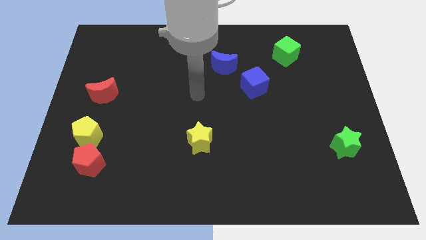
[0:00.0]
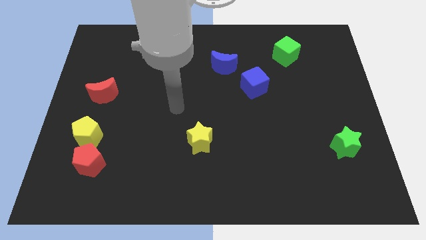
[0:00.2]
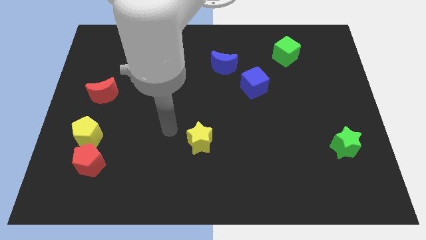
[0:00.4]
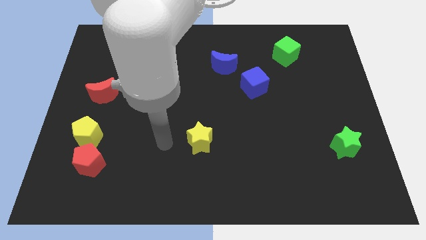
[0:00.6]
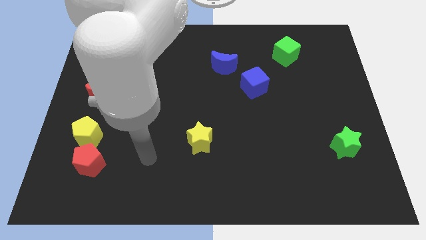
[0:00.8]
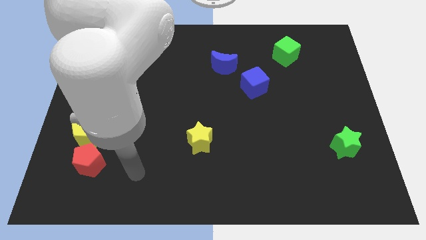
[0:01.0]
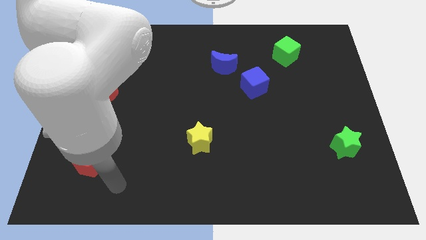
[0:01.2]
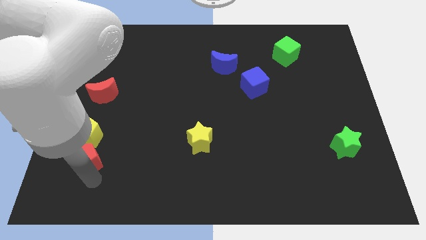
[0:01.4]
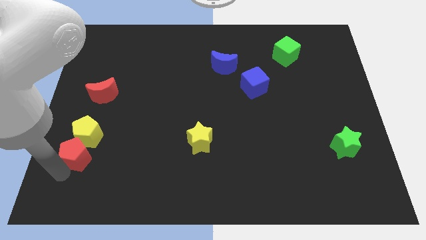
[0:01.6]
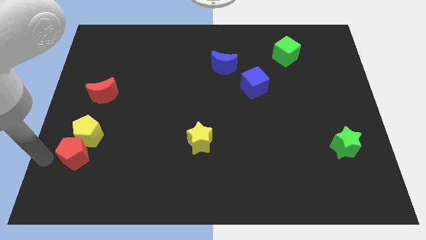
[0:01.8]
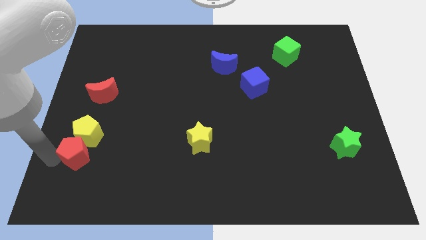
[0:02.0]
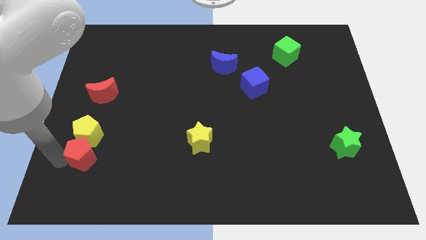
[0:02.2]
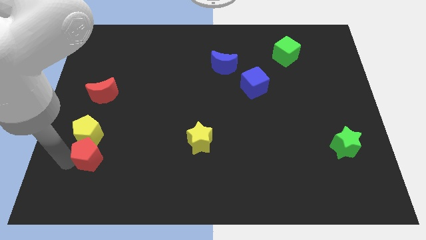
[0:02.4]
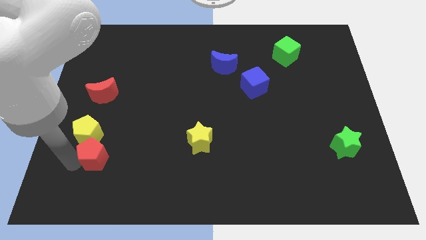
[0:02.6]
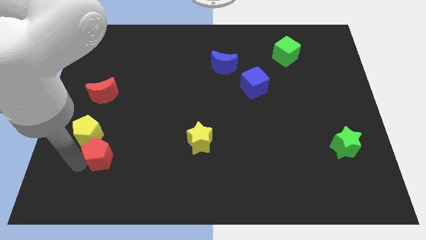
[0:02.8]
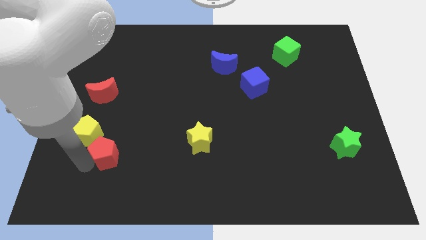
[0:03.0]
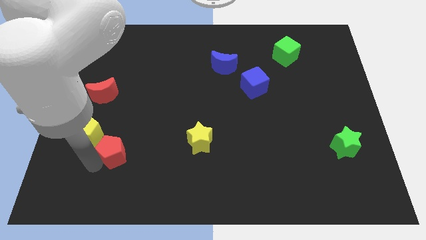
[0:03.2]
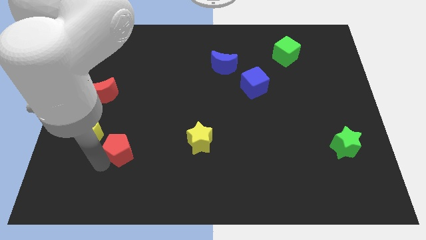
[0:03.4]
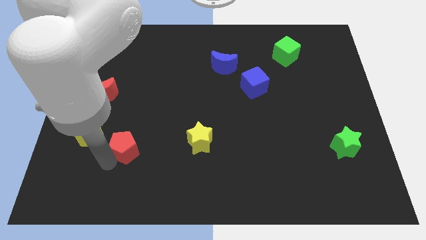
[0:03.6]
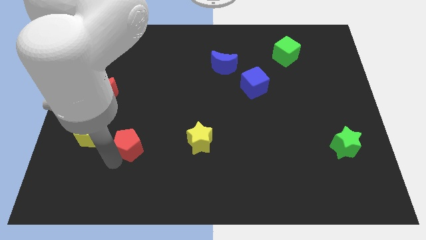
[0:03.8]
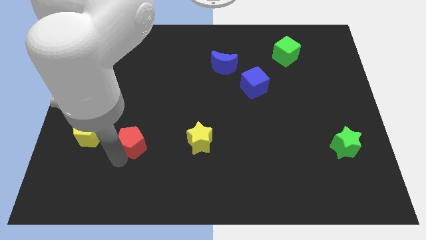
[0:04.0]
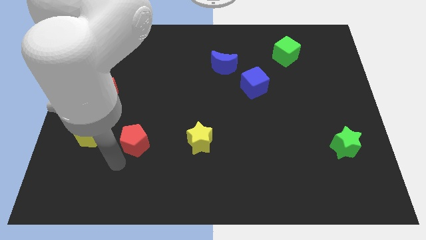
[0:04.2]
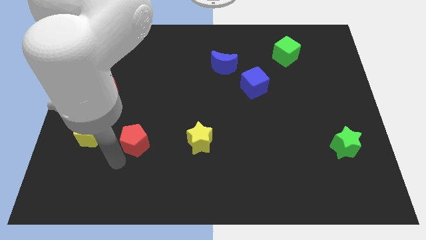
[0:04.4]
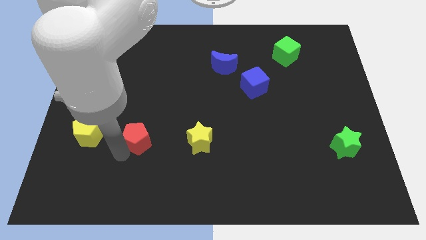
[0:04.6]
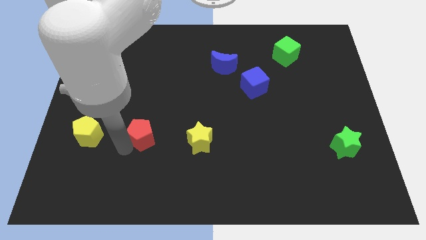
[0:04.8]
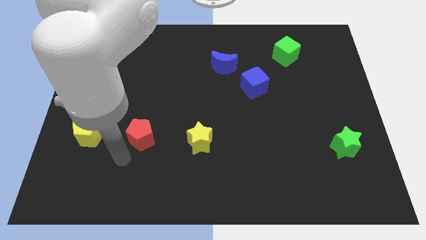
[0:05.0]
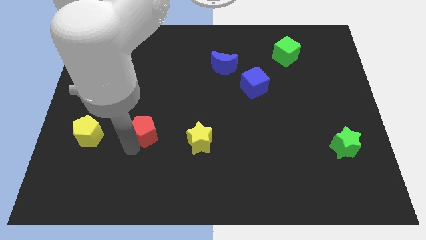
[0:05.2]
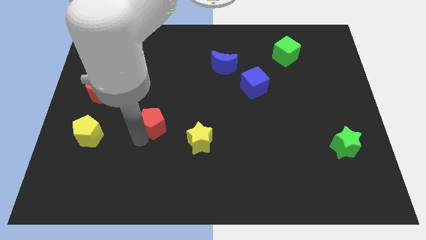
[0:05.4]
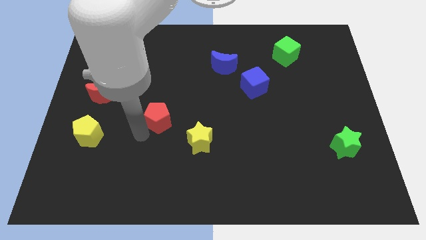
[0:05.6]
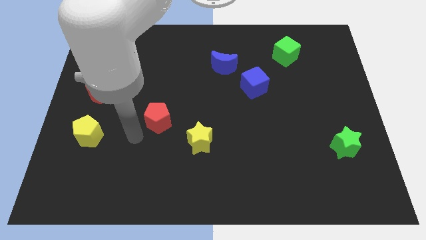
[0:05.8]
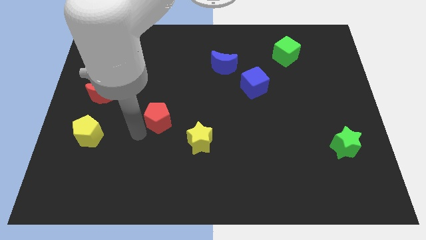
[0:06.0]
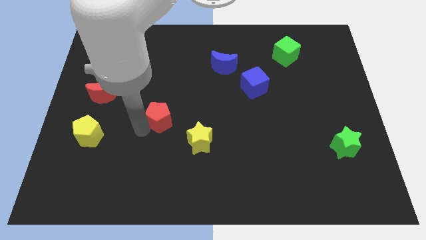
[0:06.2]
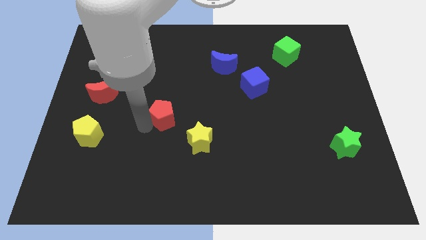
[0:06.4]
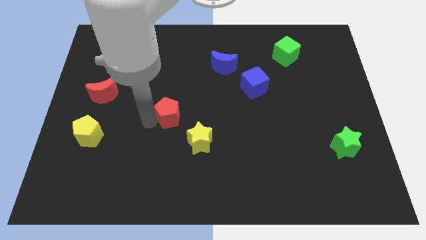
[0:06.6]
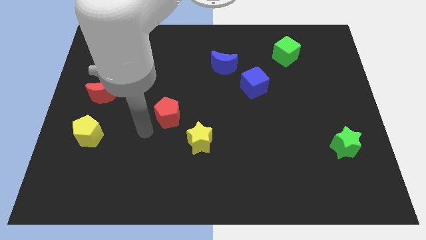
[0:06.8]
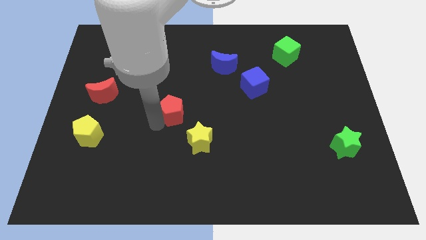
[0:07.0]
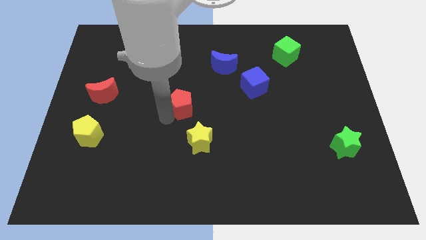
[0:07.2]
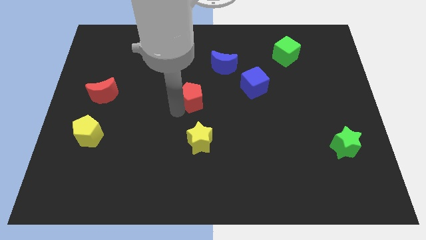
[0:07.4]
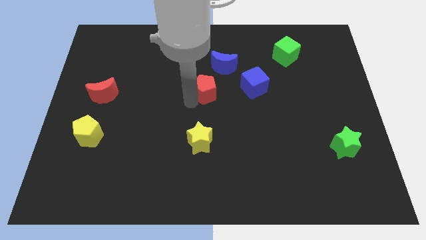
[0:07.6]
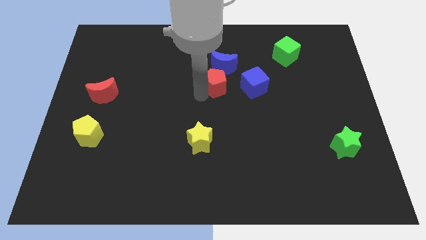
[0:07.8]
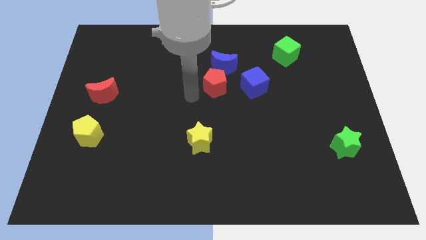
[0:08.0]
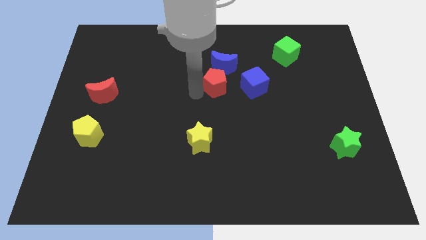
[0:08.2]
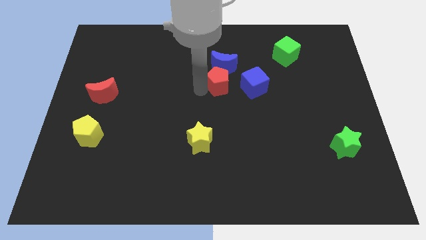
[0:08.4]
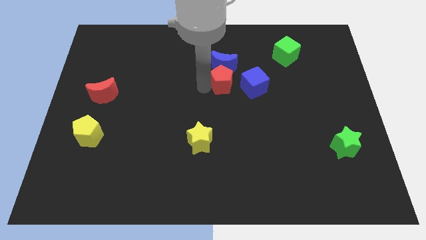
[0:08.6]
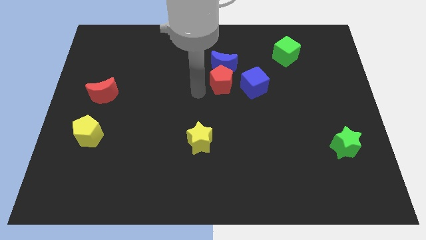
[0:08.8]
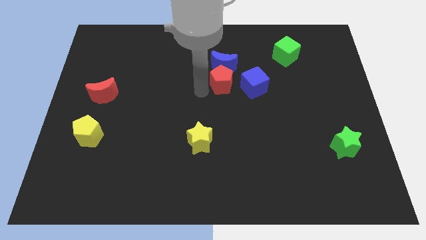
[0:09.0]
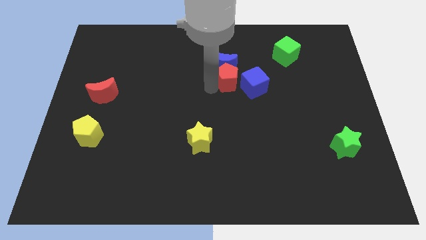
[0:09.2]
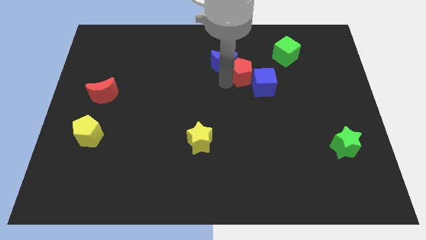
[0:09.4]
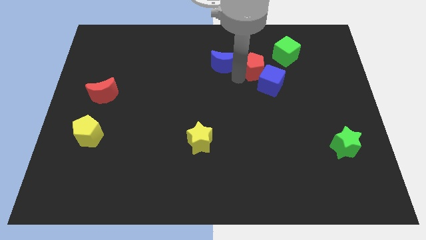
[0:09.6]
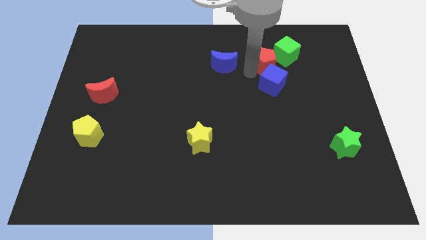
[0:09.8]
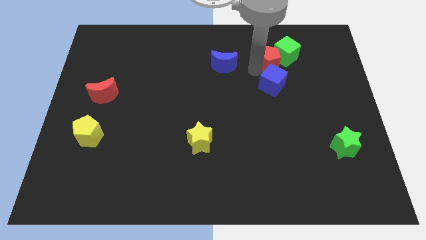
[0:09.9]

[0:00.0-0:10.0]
push the red pentagon close to the green cube

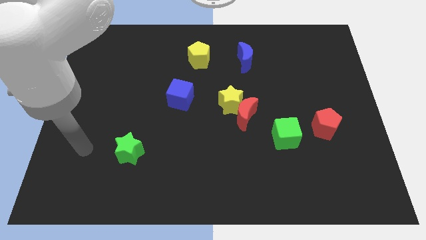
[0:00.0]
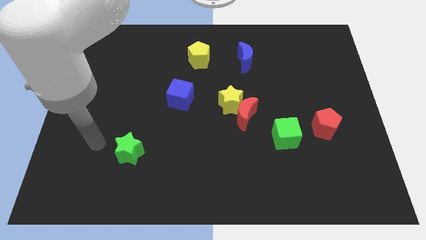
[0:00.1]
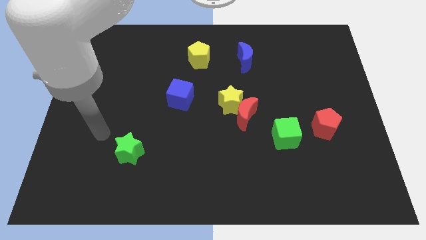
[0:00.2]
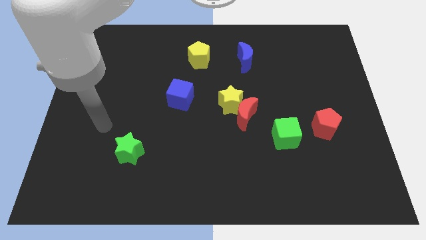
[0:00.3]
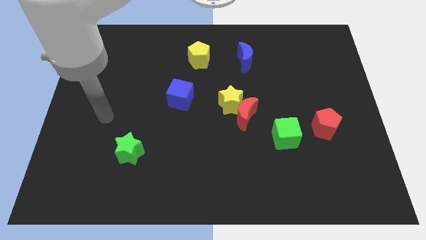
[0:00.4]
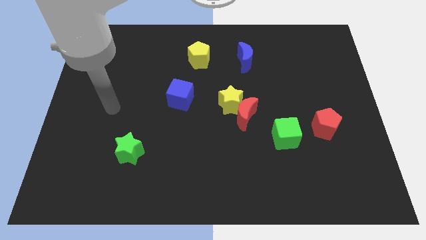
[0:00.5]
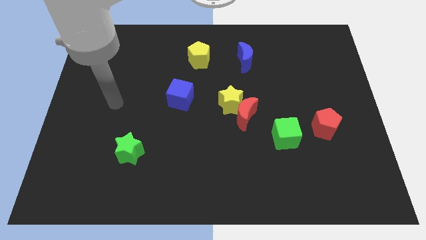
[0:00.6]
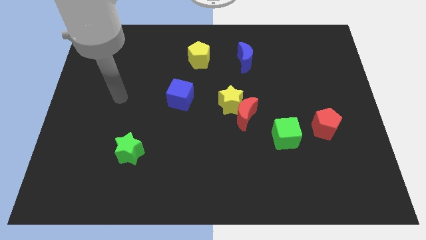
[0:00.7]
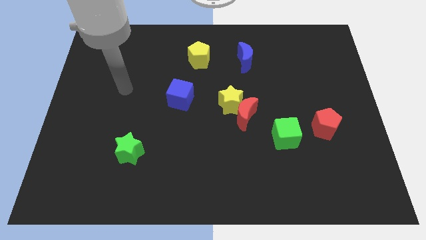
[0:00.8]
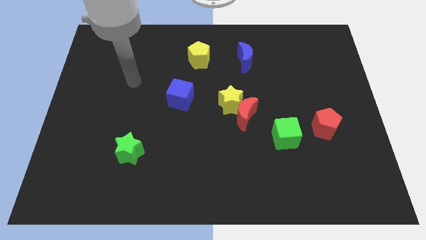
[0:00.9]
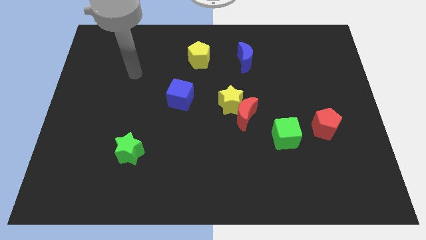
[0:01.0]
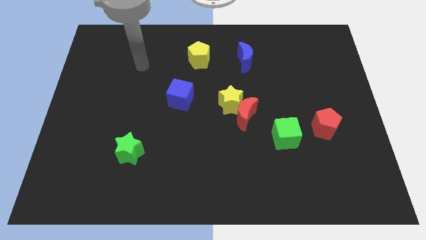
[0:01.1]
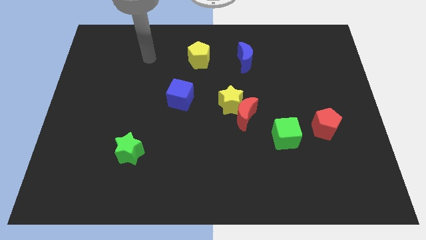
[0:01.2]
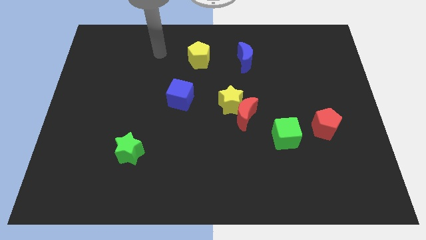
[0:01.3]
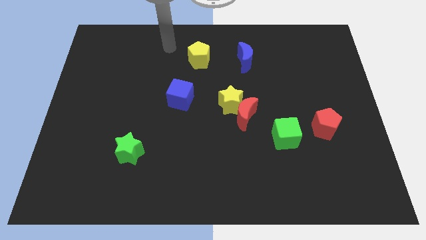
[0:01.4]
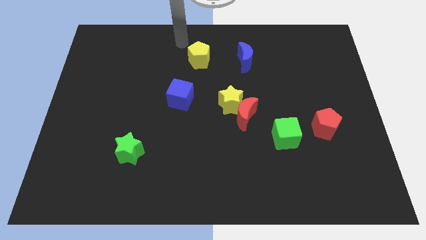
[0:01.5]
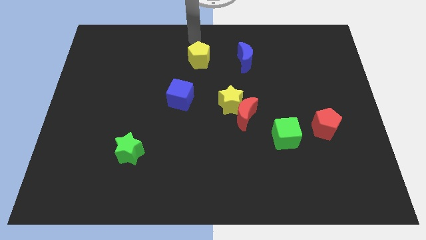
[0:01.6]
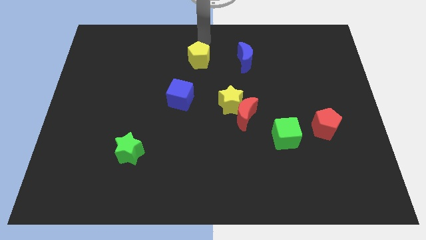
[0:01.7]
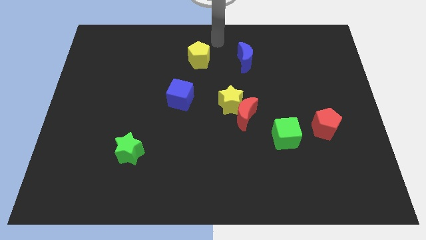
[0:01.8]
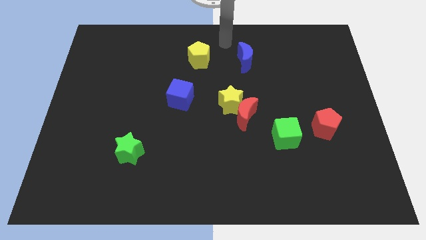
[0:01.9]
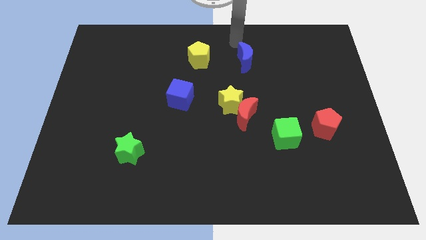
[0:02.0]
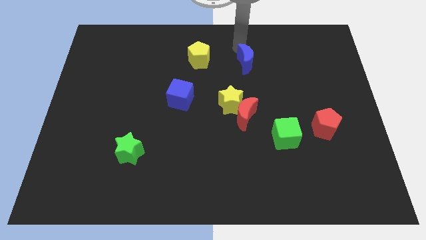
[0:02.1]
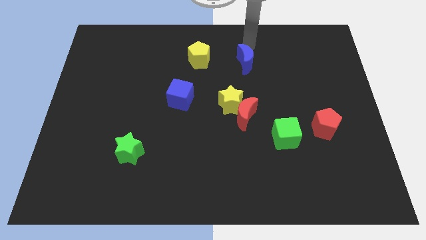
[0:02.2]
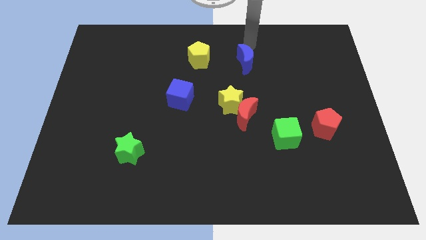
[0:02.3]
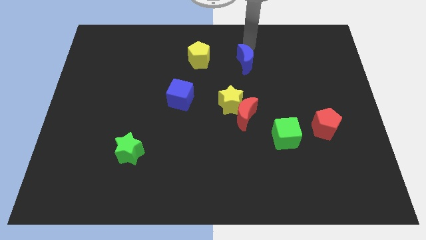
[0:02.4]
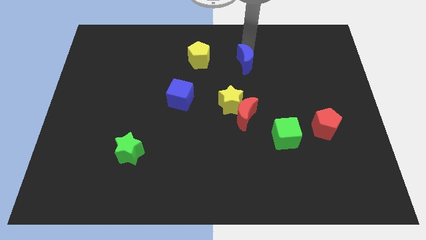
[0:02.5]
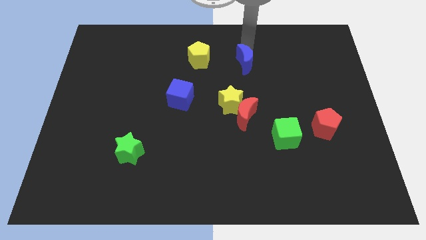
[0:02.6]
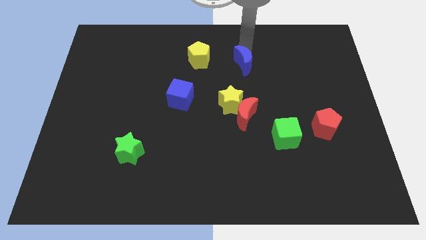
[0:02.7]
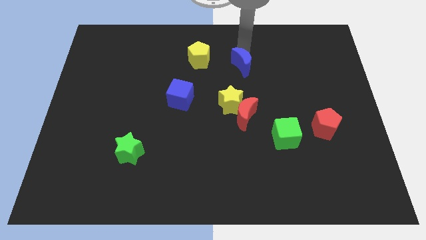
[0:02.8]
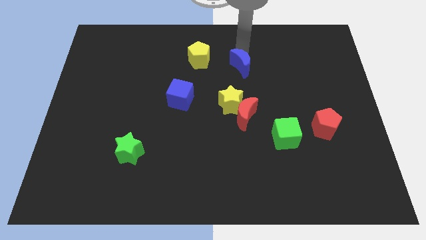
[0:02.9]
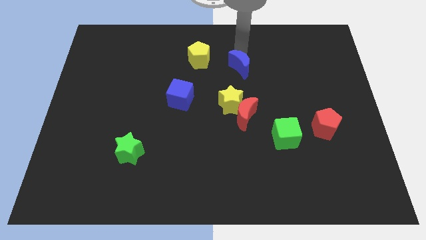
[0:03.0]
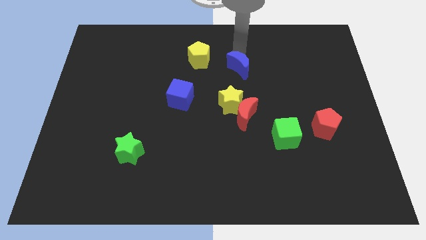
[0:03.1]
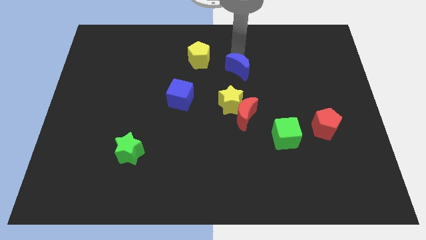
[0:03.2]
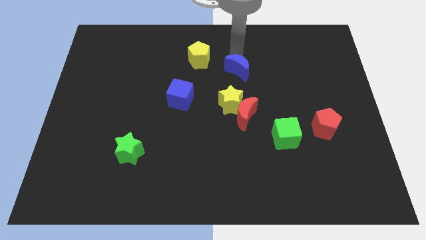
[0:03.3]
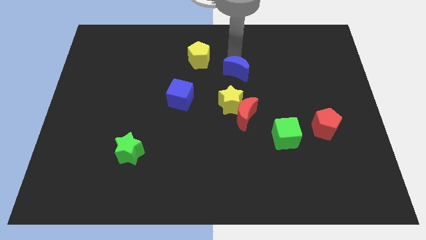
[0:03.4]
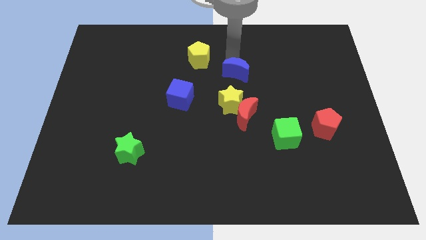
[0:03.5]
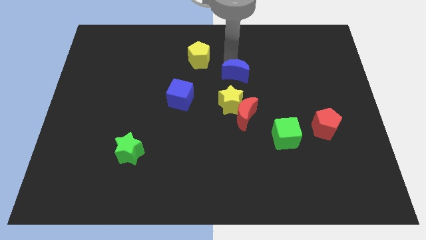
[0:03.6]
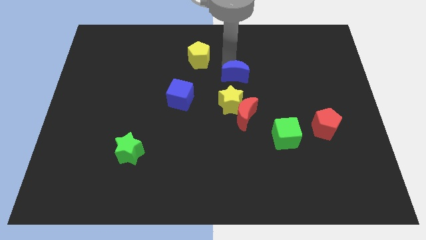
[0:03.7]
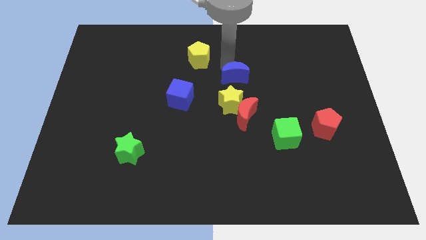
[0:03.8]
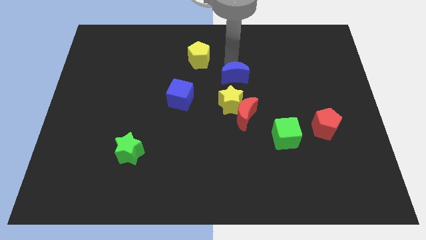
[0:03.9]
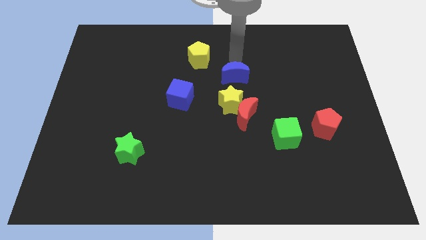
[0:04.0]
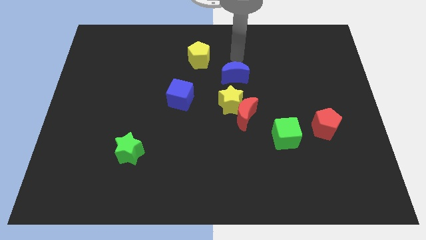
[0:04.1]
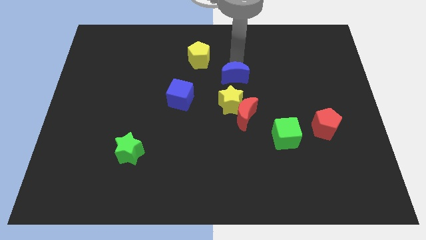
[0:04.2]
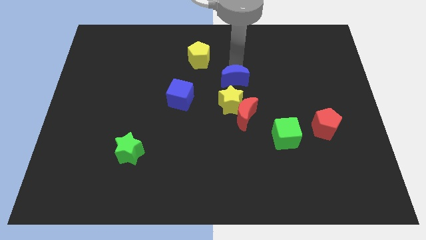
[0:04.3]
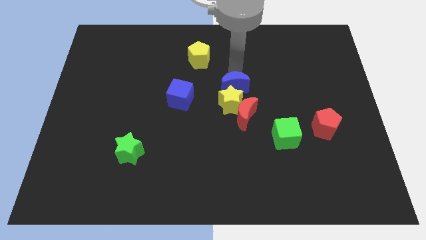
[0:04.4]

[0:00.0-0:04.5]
move the blue moon next to the yellow star
